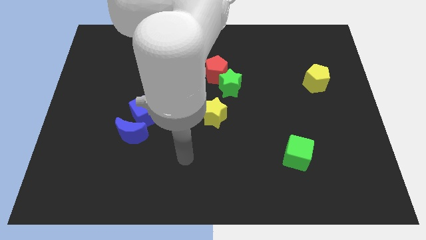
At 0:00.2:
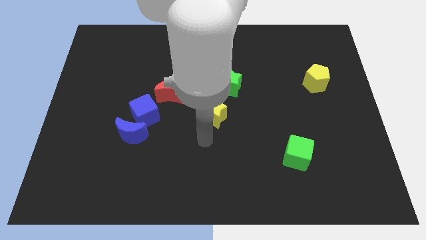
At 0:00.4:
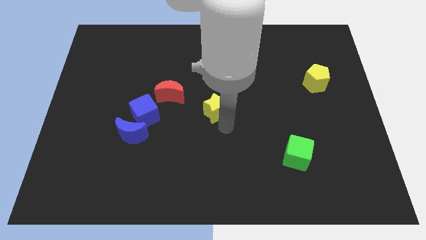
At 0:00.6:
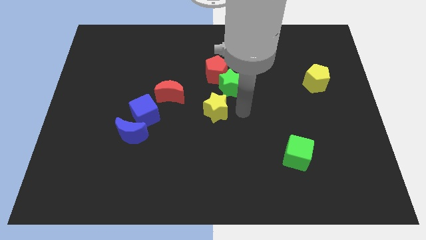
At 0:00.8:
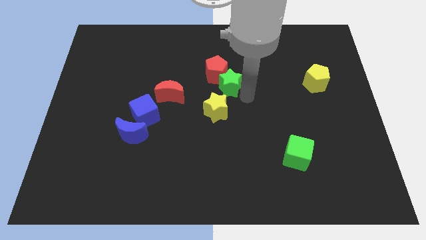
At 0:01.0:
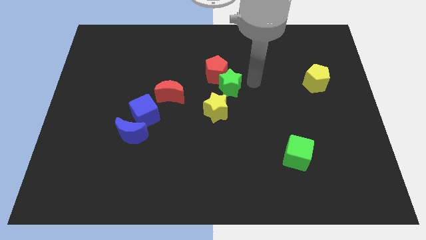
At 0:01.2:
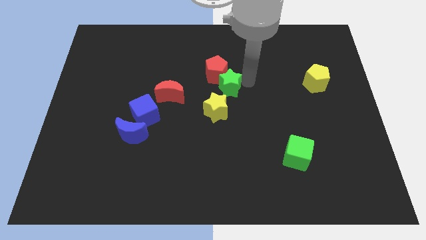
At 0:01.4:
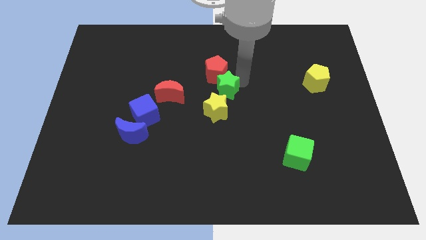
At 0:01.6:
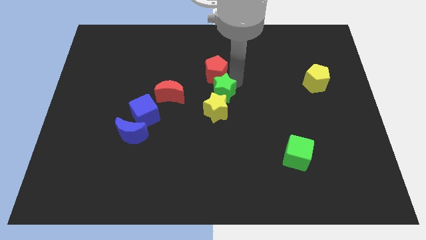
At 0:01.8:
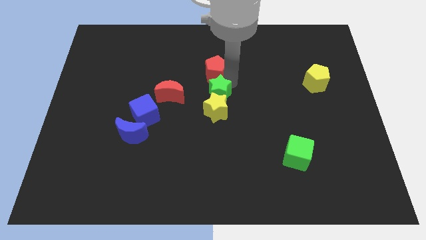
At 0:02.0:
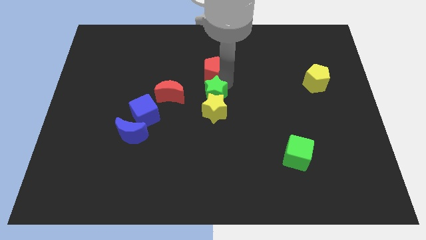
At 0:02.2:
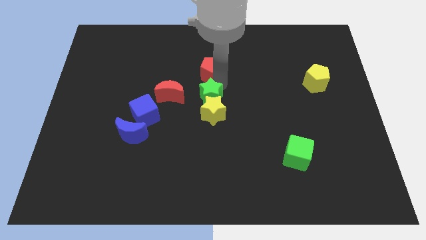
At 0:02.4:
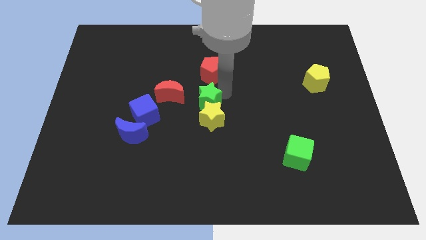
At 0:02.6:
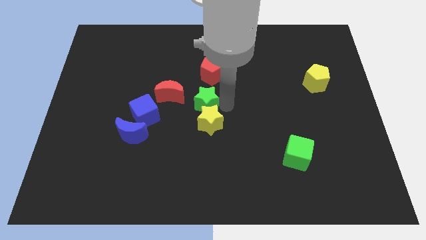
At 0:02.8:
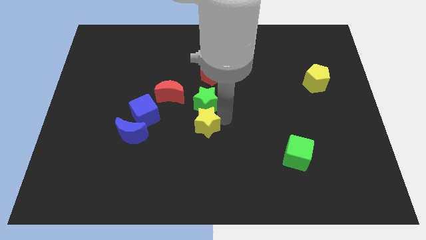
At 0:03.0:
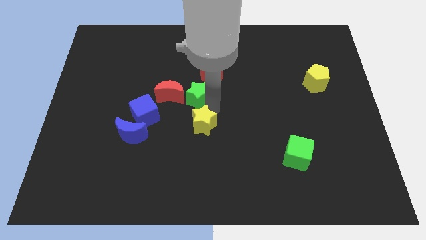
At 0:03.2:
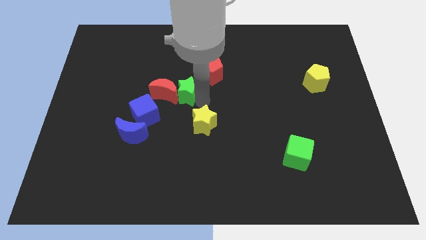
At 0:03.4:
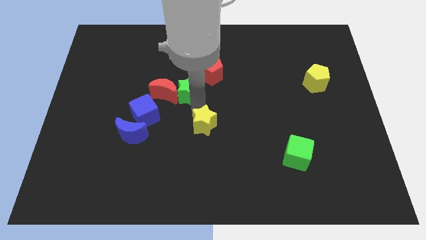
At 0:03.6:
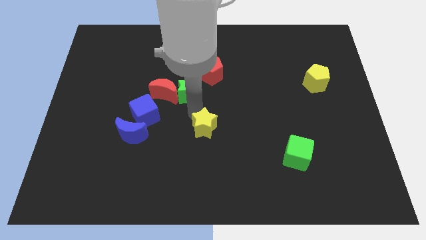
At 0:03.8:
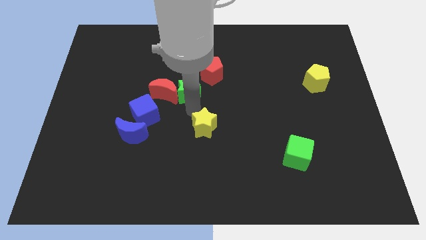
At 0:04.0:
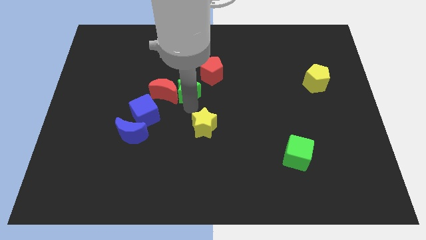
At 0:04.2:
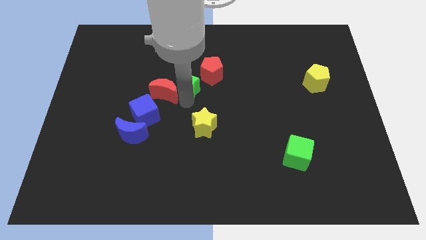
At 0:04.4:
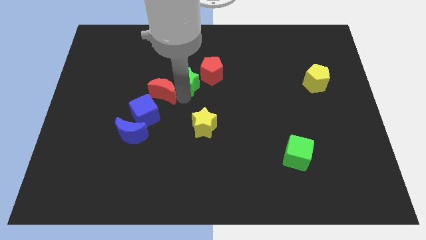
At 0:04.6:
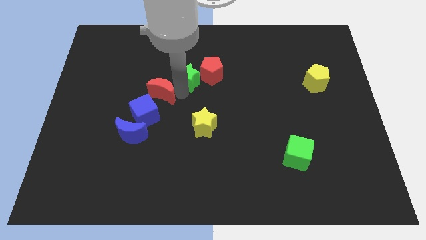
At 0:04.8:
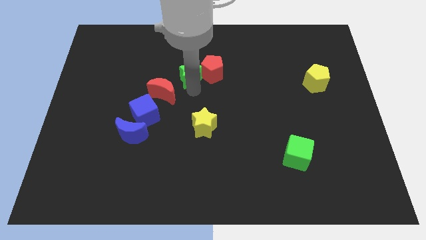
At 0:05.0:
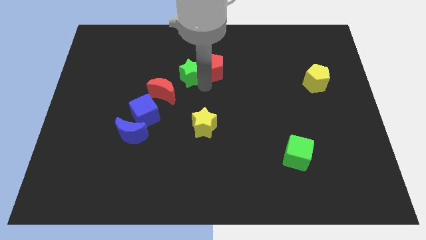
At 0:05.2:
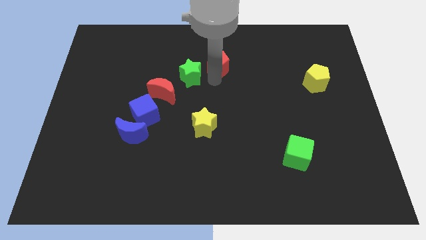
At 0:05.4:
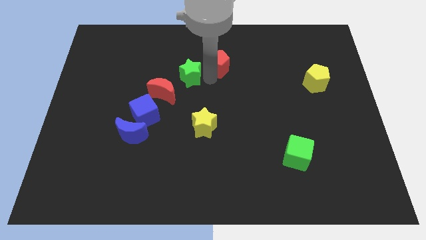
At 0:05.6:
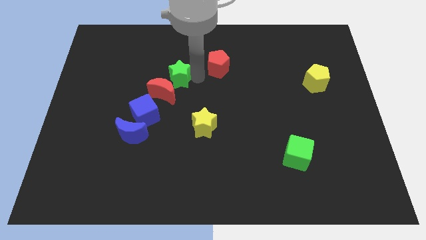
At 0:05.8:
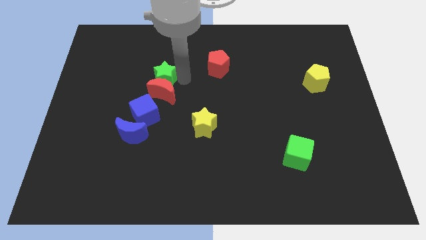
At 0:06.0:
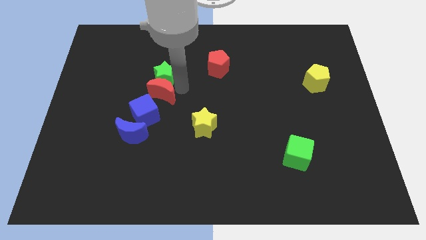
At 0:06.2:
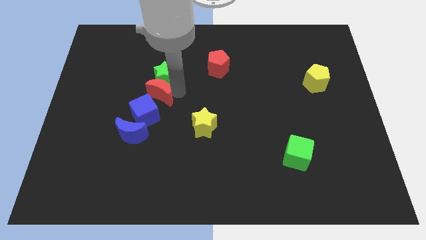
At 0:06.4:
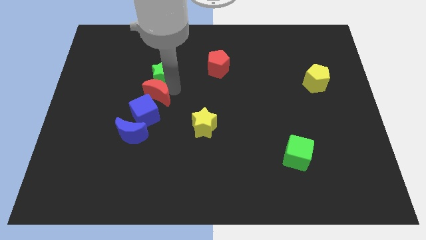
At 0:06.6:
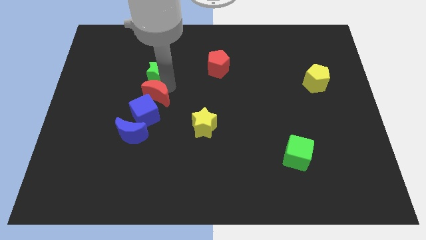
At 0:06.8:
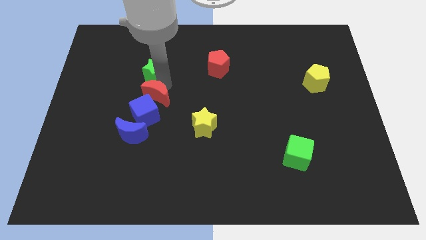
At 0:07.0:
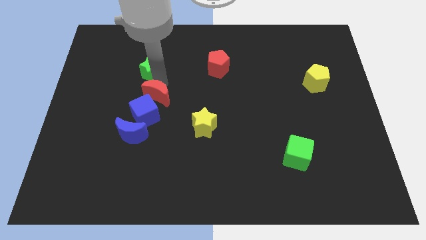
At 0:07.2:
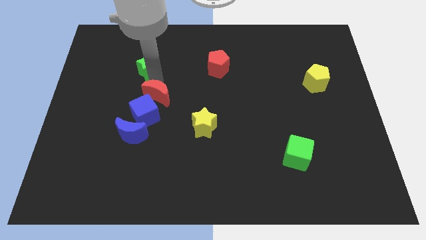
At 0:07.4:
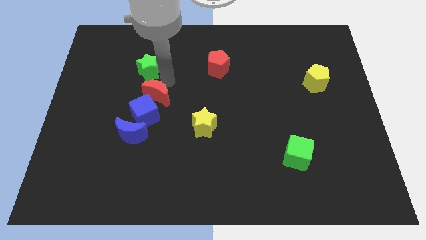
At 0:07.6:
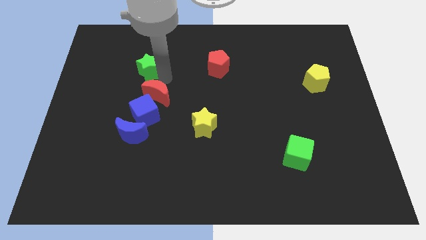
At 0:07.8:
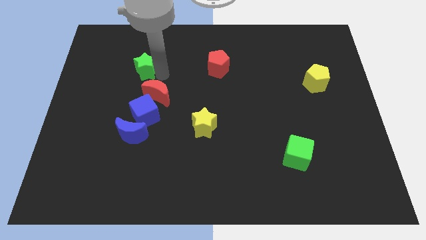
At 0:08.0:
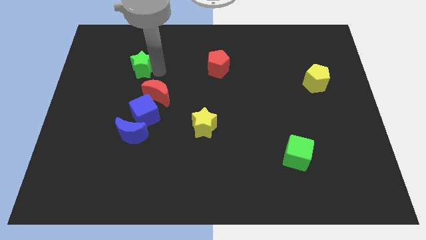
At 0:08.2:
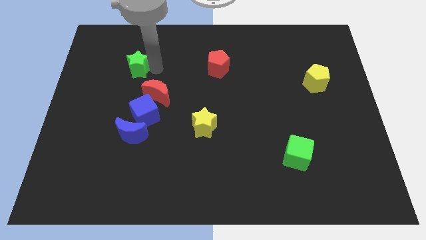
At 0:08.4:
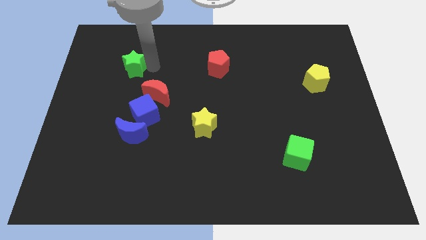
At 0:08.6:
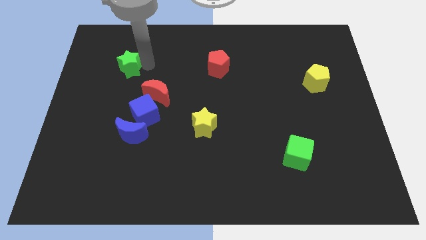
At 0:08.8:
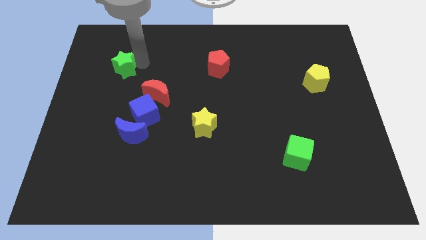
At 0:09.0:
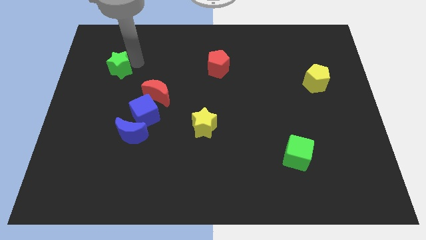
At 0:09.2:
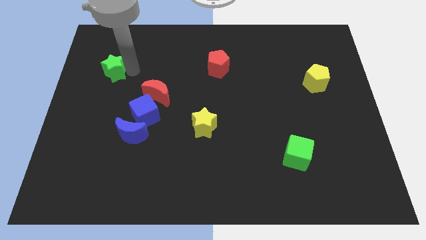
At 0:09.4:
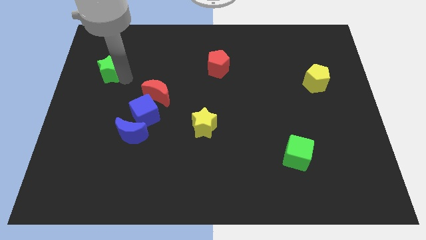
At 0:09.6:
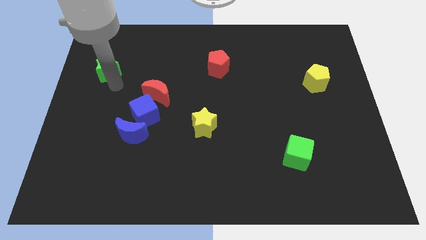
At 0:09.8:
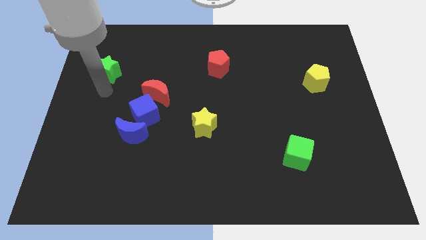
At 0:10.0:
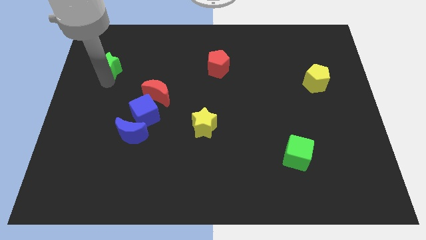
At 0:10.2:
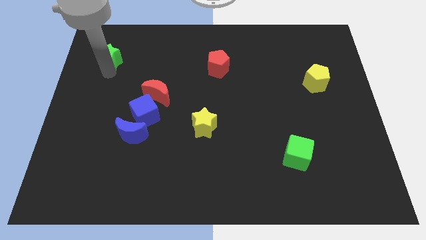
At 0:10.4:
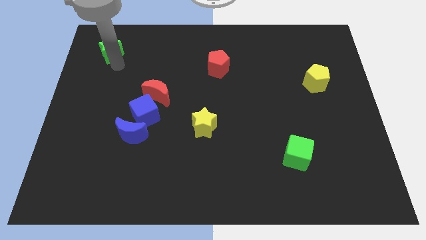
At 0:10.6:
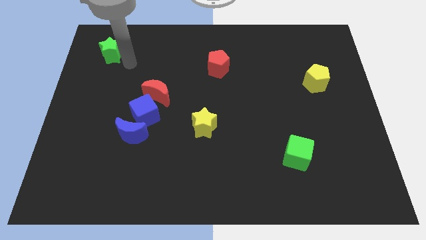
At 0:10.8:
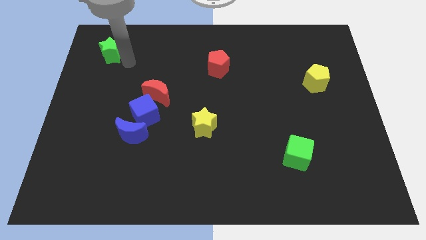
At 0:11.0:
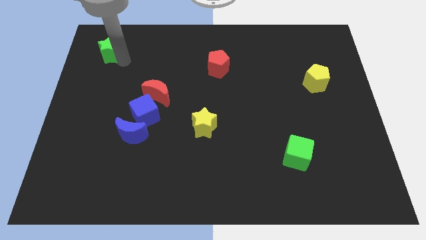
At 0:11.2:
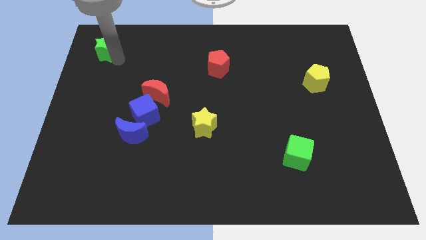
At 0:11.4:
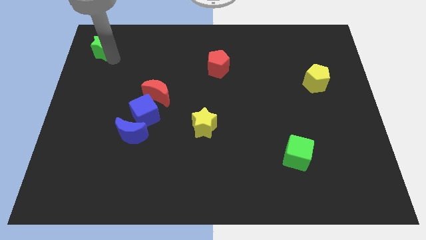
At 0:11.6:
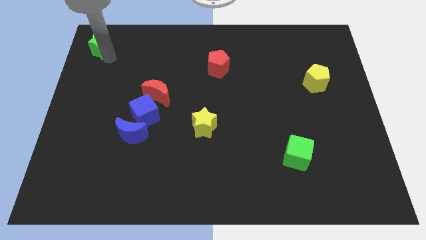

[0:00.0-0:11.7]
put the green star to the top left of the board

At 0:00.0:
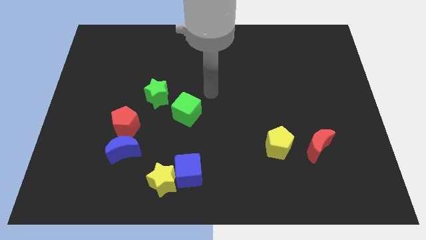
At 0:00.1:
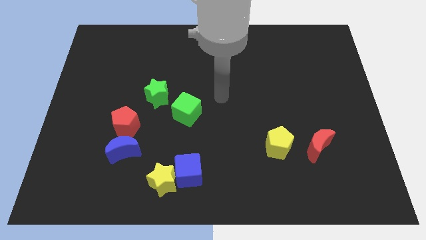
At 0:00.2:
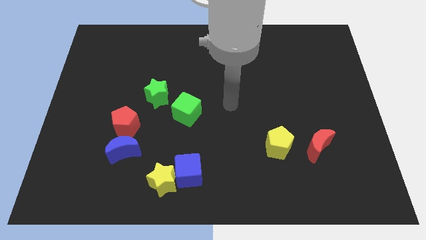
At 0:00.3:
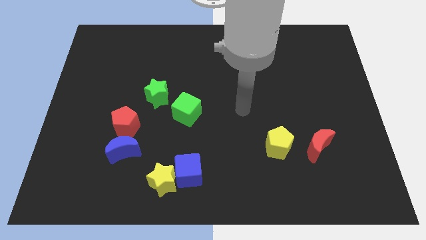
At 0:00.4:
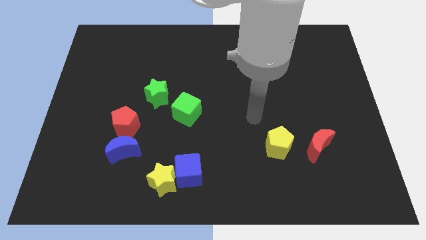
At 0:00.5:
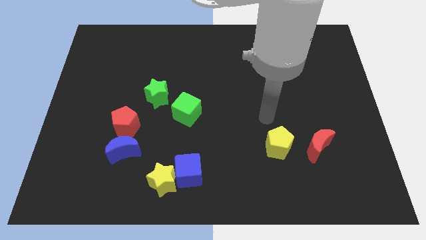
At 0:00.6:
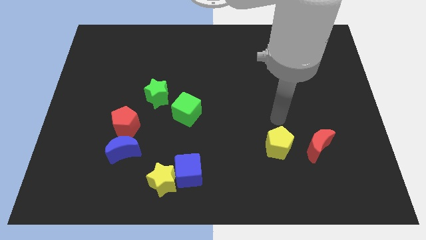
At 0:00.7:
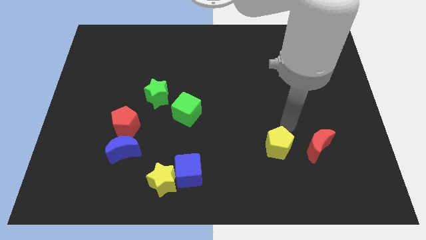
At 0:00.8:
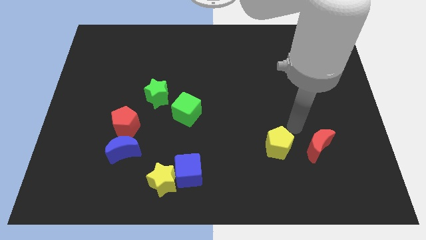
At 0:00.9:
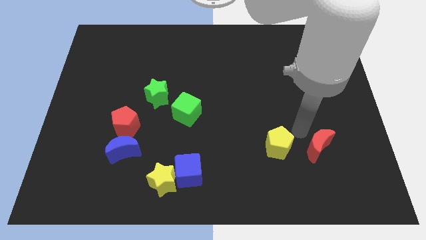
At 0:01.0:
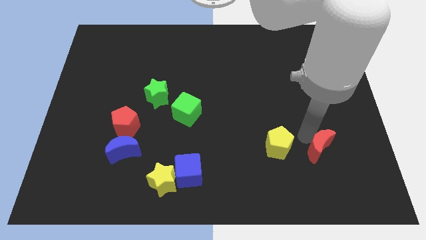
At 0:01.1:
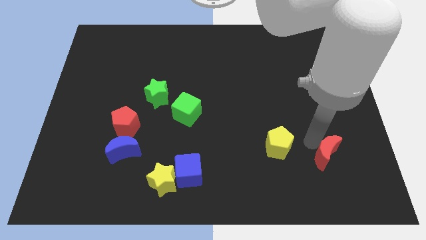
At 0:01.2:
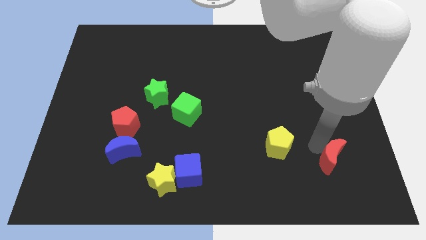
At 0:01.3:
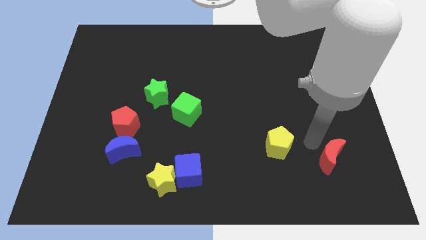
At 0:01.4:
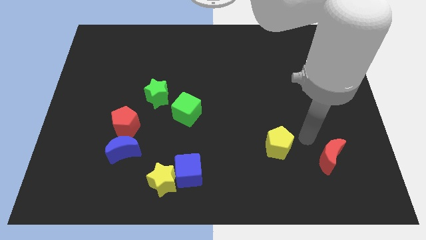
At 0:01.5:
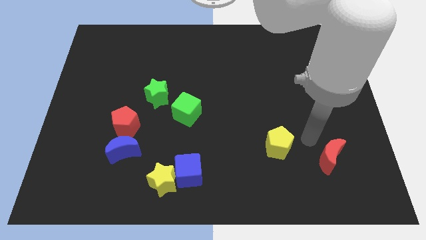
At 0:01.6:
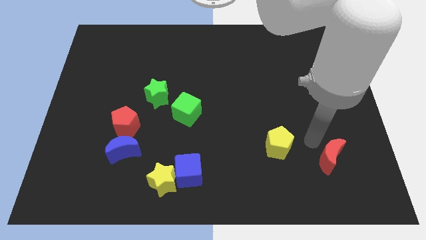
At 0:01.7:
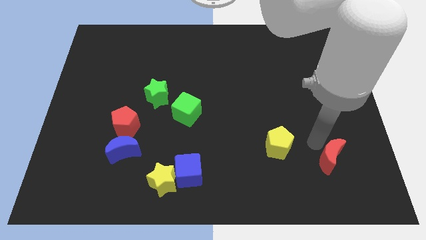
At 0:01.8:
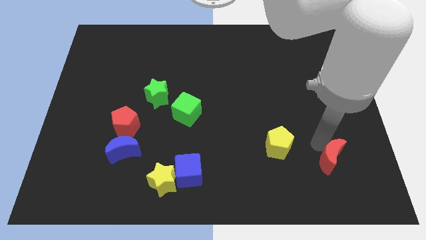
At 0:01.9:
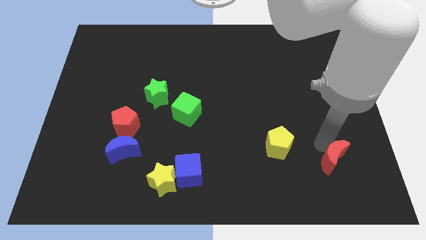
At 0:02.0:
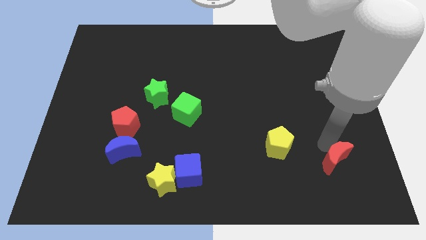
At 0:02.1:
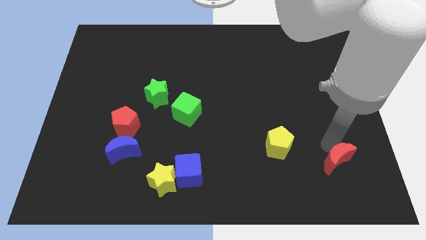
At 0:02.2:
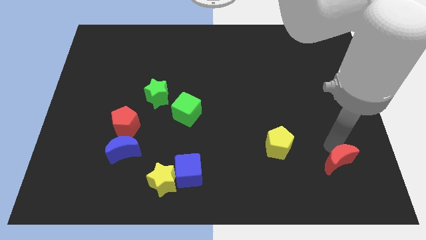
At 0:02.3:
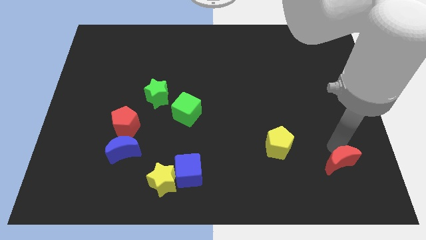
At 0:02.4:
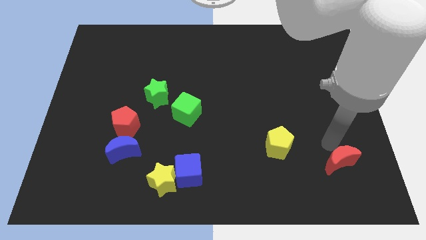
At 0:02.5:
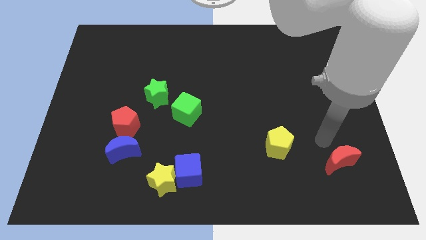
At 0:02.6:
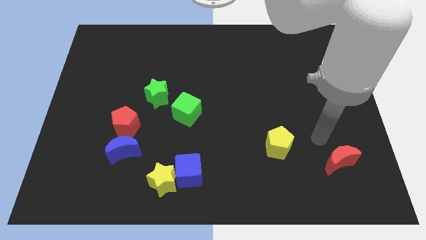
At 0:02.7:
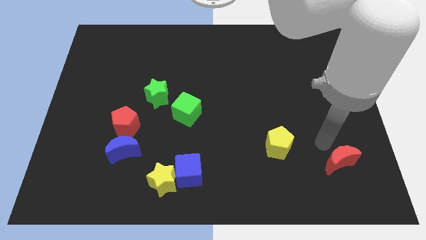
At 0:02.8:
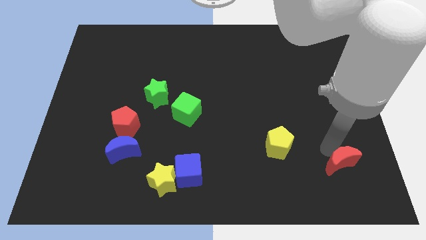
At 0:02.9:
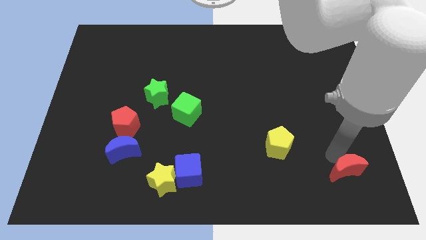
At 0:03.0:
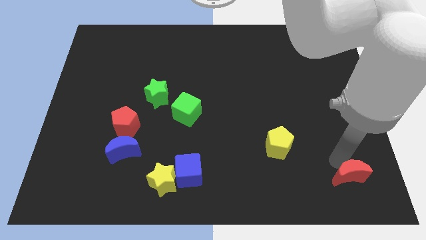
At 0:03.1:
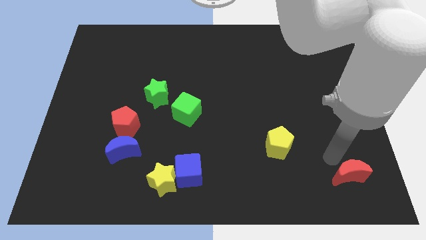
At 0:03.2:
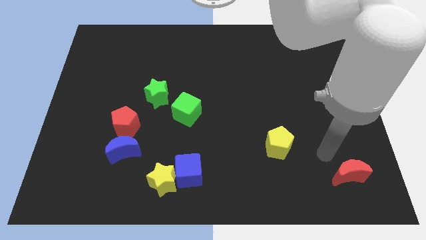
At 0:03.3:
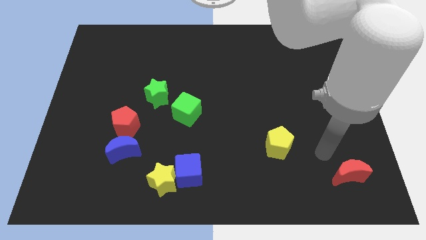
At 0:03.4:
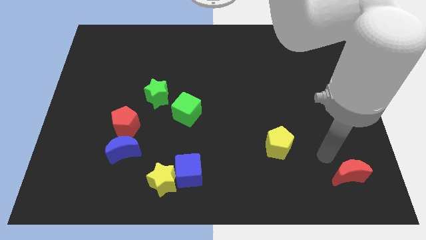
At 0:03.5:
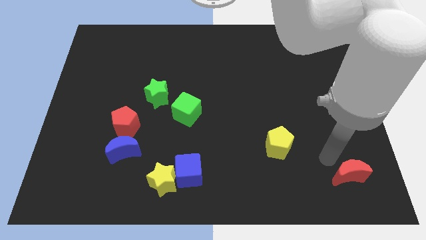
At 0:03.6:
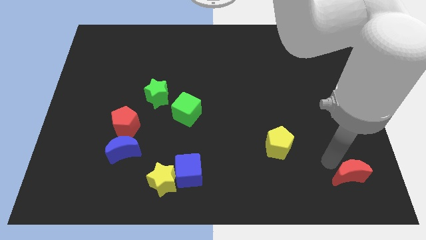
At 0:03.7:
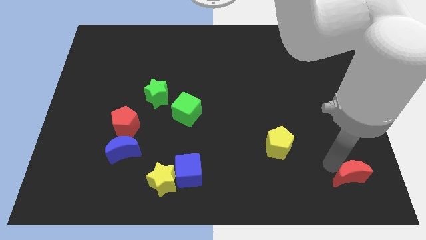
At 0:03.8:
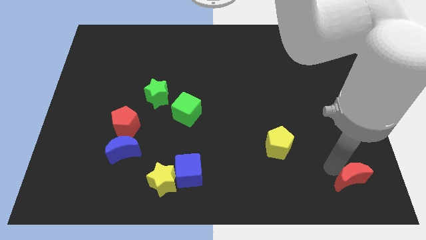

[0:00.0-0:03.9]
slide the red moon to the bottom right
